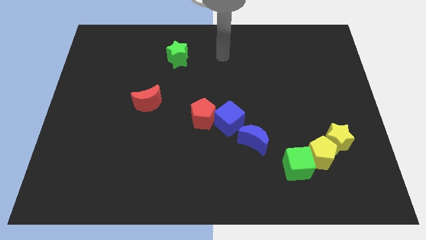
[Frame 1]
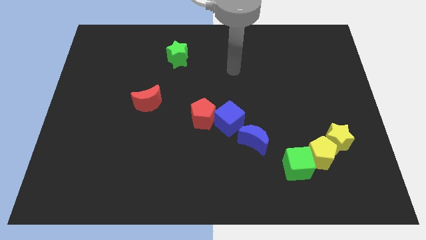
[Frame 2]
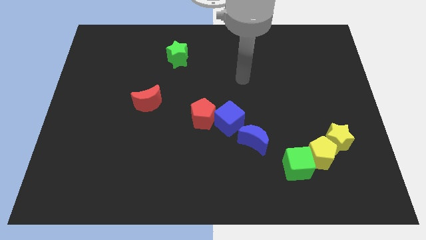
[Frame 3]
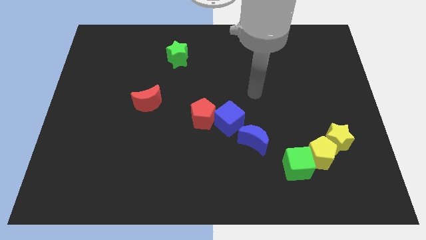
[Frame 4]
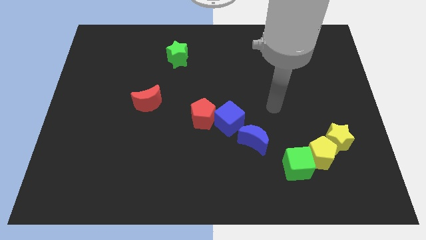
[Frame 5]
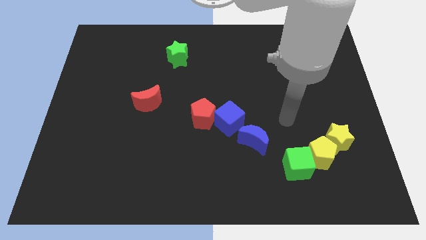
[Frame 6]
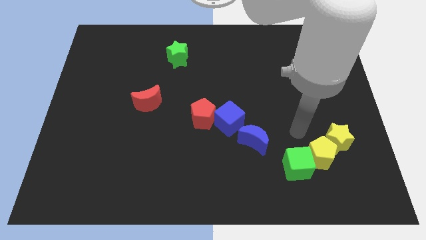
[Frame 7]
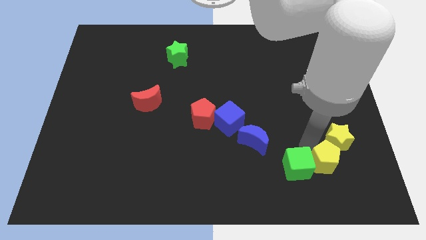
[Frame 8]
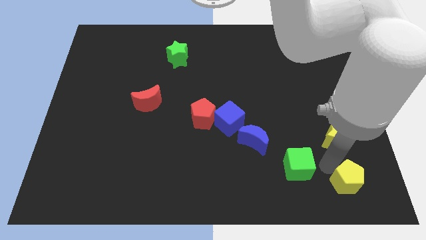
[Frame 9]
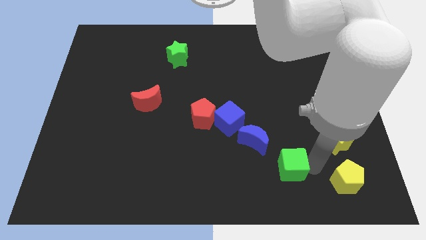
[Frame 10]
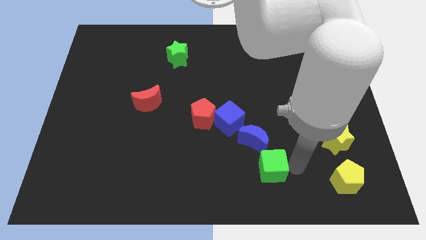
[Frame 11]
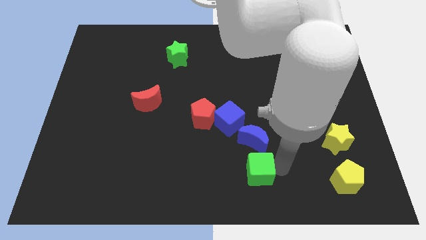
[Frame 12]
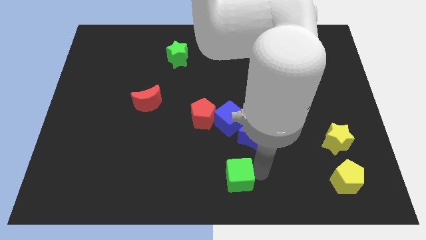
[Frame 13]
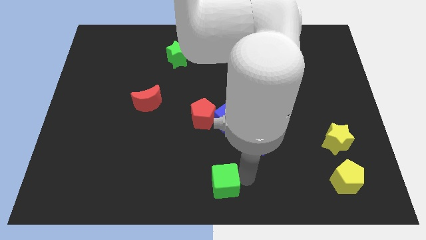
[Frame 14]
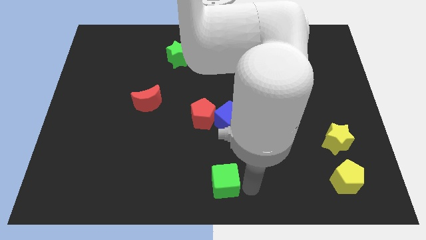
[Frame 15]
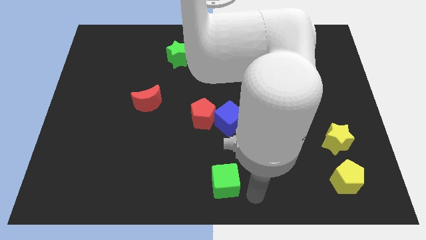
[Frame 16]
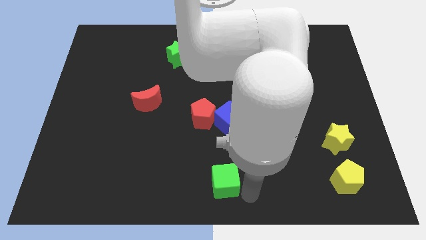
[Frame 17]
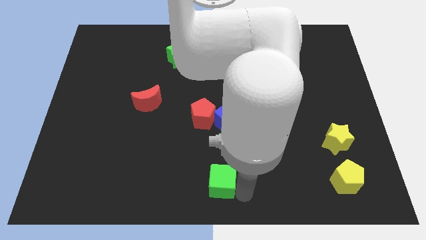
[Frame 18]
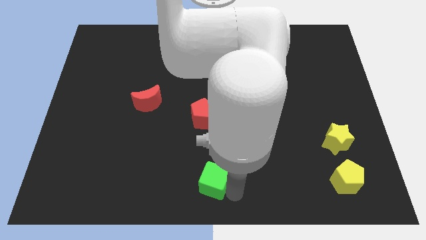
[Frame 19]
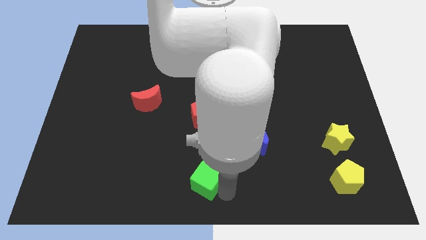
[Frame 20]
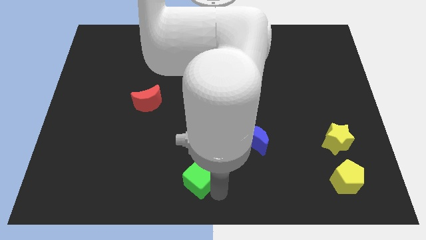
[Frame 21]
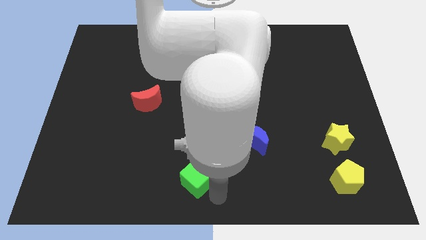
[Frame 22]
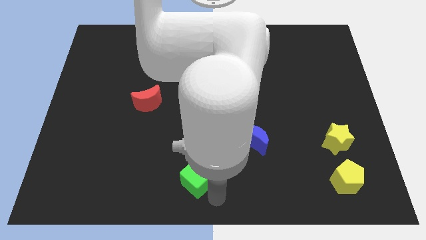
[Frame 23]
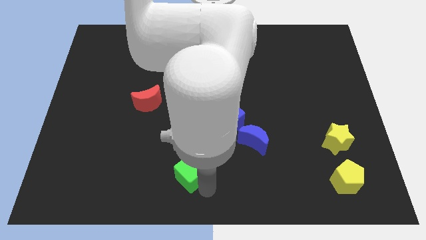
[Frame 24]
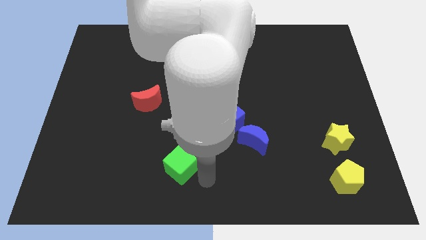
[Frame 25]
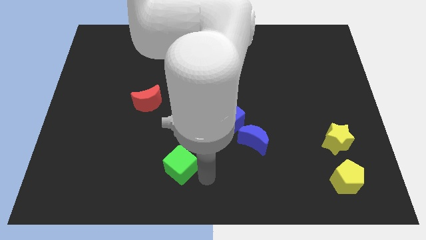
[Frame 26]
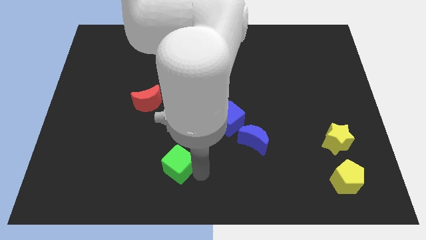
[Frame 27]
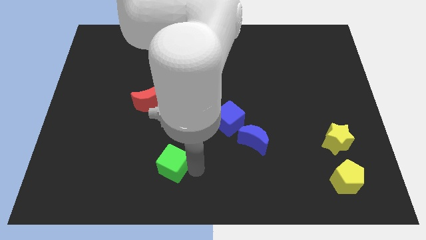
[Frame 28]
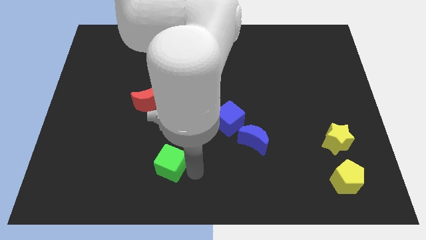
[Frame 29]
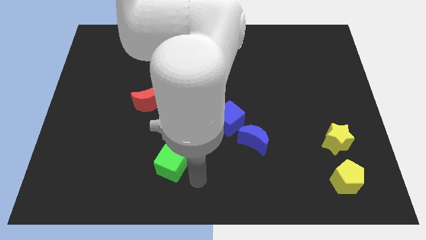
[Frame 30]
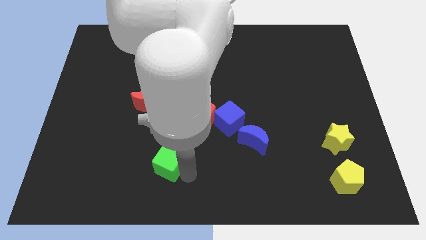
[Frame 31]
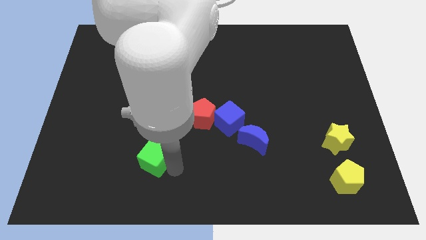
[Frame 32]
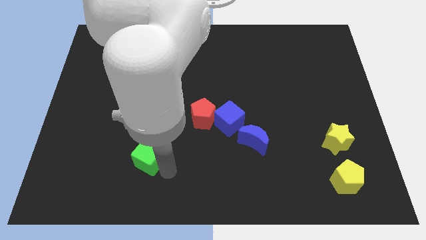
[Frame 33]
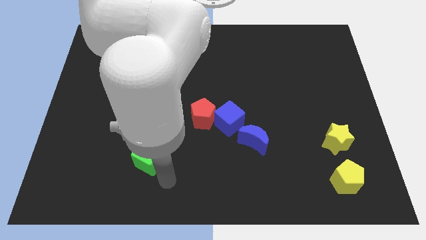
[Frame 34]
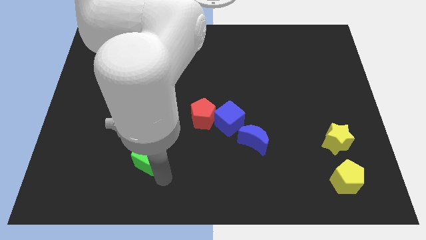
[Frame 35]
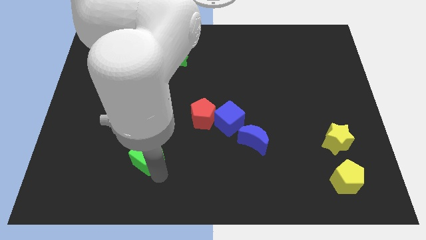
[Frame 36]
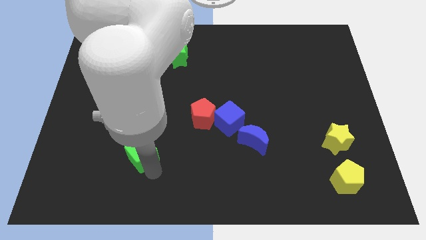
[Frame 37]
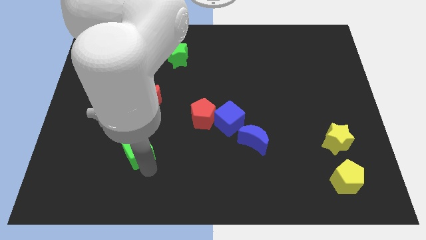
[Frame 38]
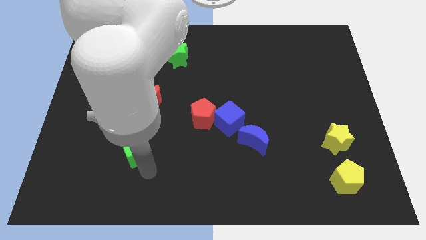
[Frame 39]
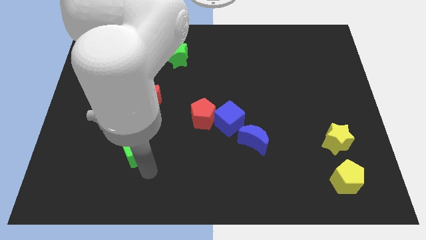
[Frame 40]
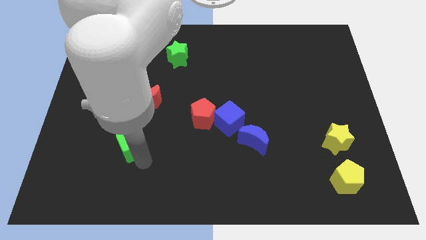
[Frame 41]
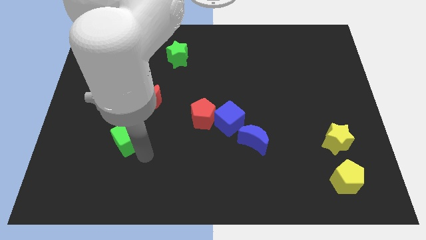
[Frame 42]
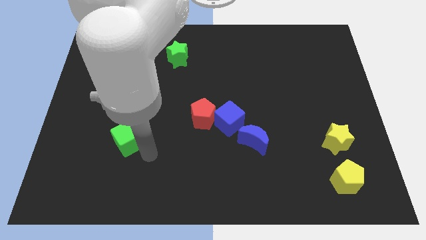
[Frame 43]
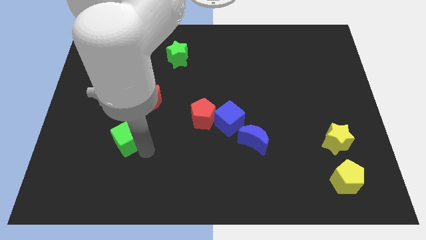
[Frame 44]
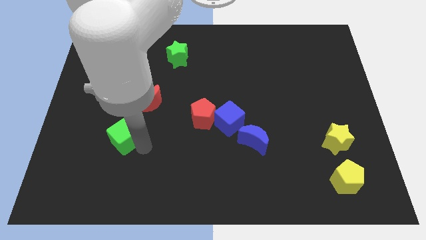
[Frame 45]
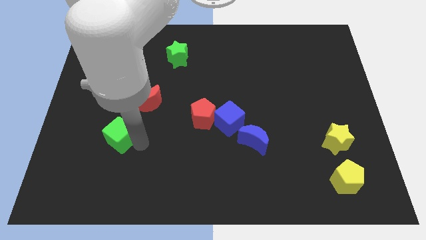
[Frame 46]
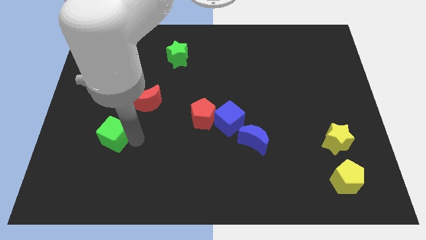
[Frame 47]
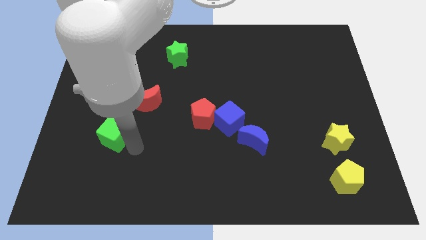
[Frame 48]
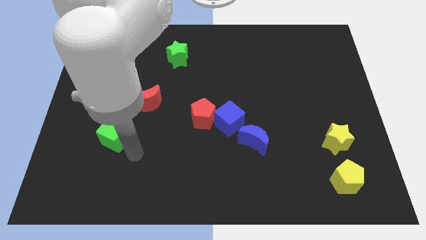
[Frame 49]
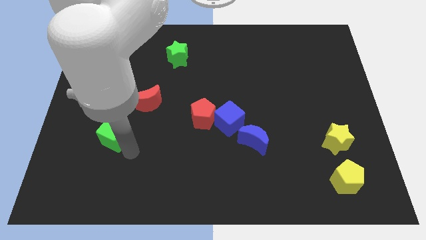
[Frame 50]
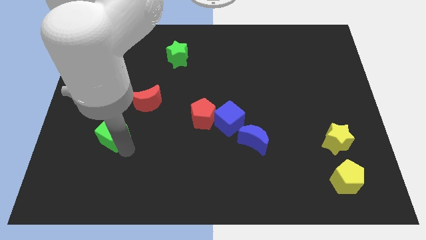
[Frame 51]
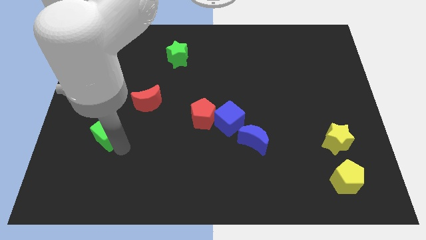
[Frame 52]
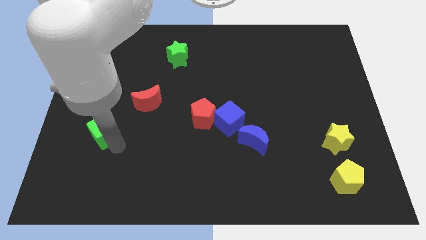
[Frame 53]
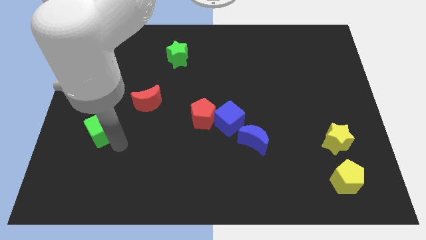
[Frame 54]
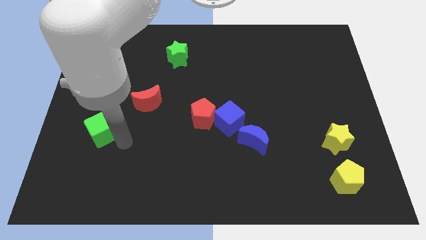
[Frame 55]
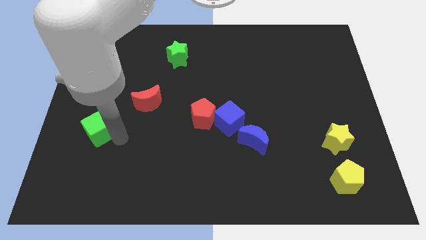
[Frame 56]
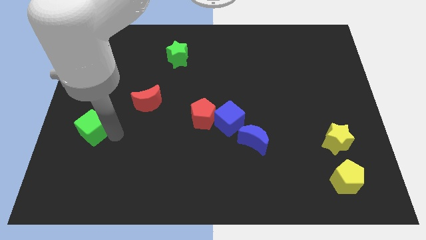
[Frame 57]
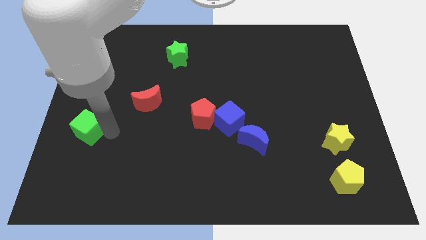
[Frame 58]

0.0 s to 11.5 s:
put the green cube to the left side

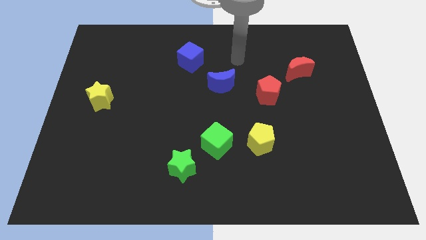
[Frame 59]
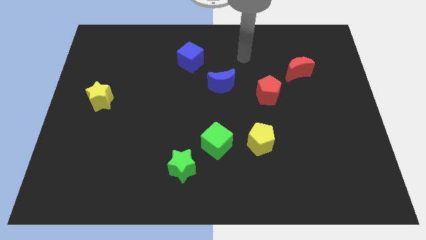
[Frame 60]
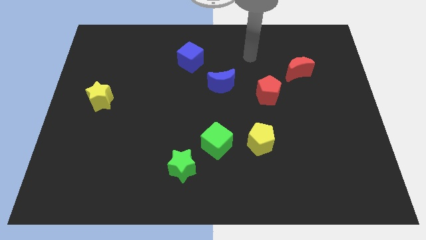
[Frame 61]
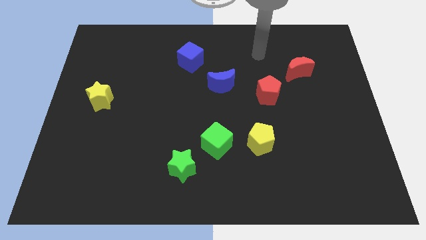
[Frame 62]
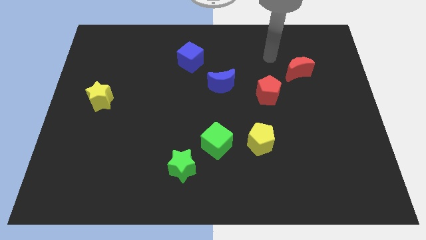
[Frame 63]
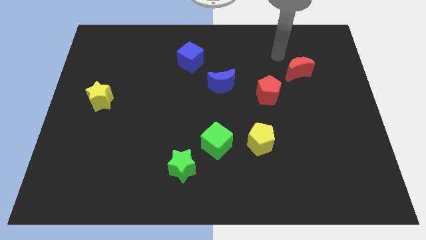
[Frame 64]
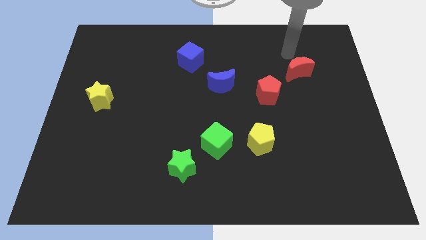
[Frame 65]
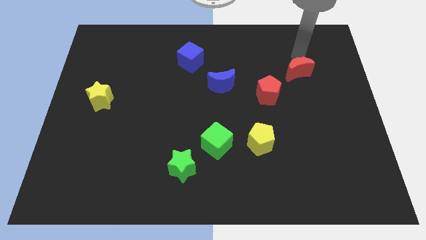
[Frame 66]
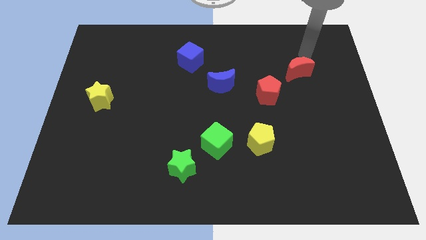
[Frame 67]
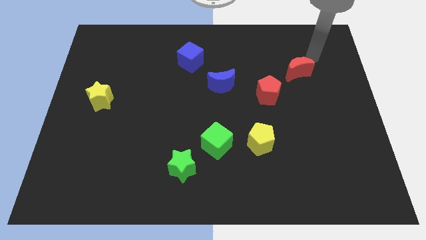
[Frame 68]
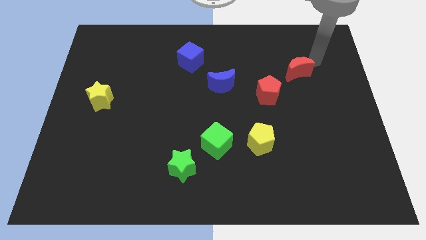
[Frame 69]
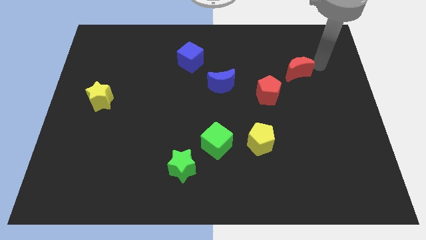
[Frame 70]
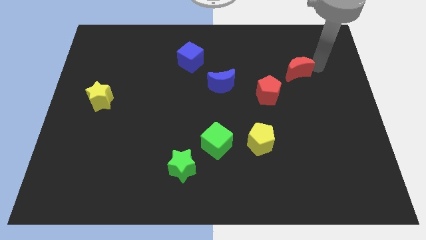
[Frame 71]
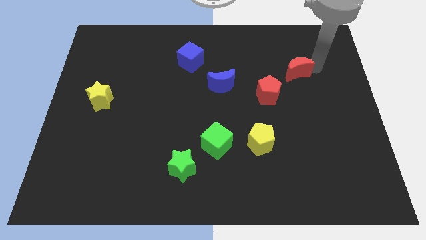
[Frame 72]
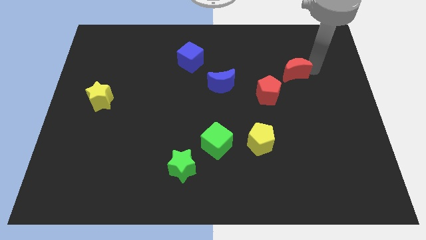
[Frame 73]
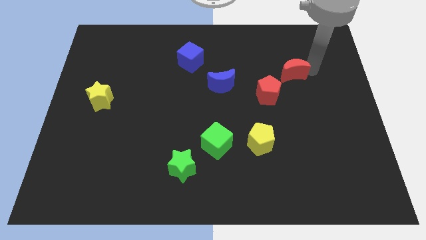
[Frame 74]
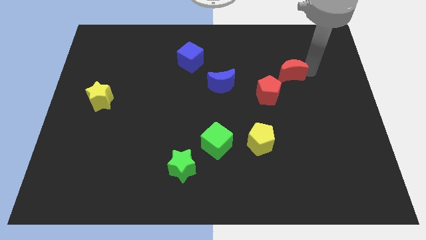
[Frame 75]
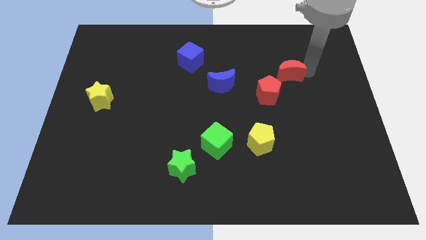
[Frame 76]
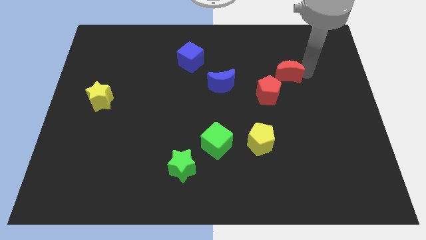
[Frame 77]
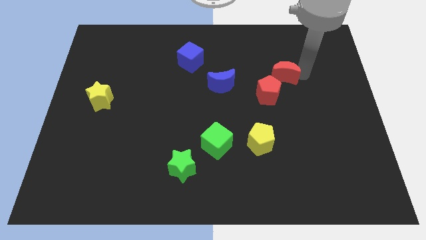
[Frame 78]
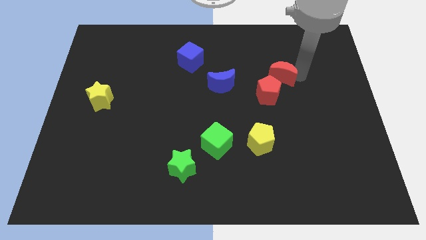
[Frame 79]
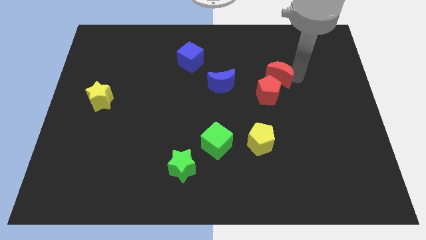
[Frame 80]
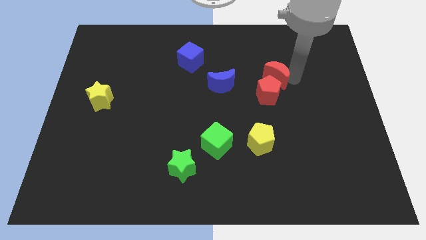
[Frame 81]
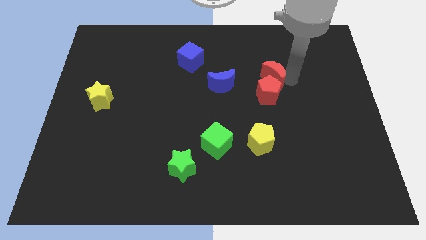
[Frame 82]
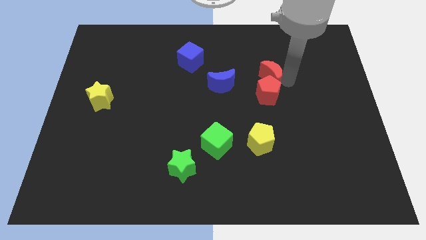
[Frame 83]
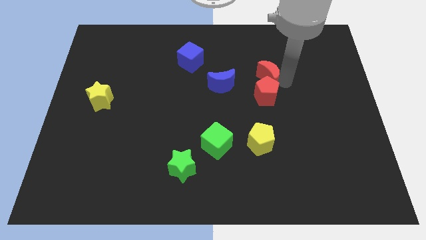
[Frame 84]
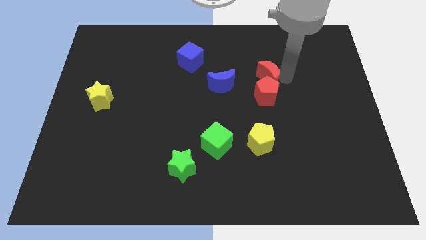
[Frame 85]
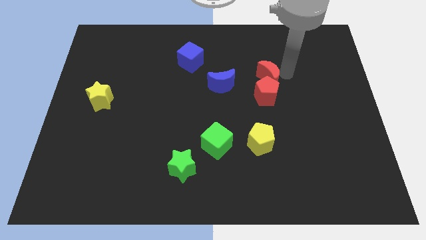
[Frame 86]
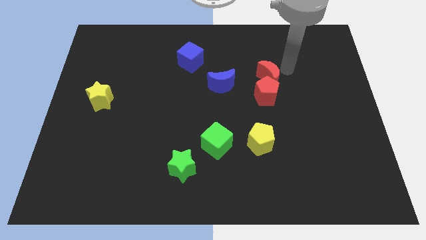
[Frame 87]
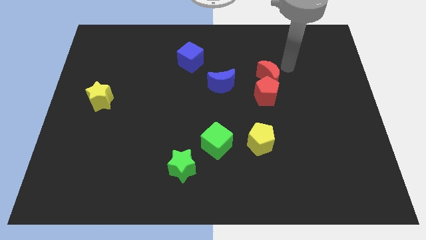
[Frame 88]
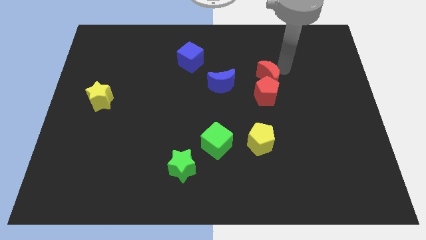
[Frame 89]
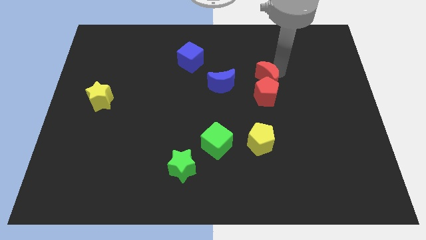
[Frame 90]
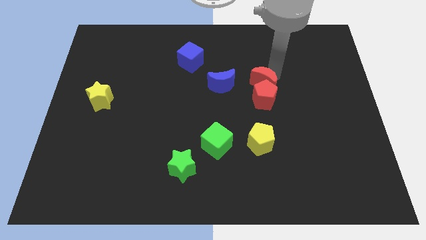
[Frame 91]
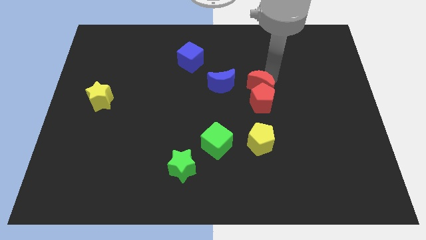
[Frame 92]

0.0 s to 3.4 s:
move the red moon to the middle of the board
